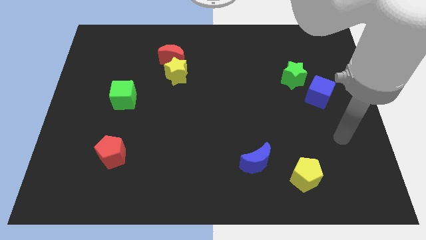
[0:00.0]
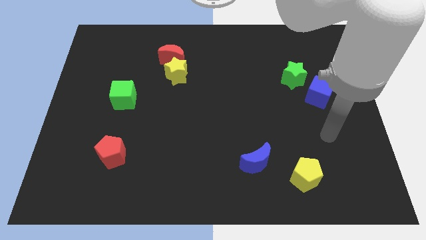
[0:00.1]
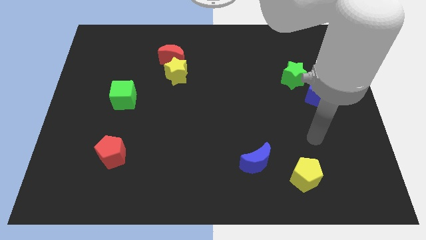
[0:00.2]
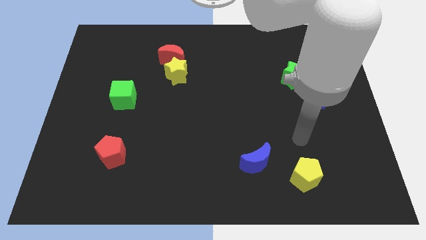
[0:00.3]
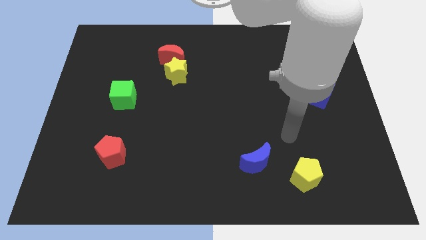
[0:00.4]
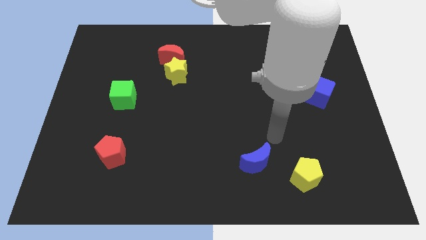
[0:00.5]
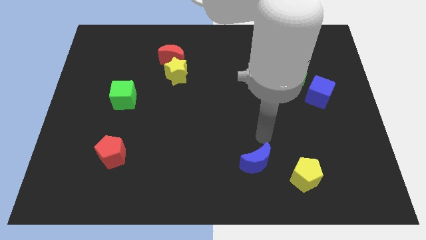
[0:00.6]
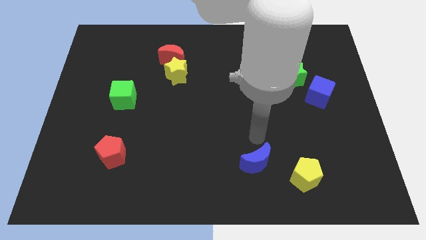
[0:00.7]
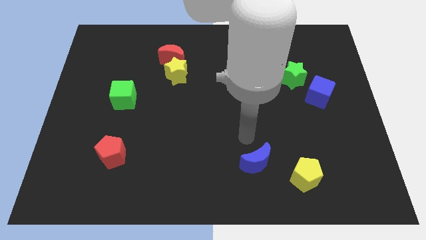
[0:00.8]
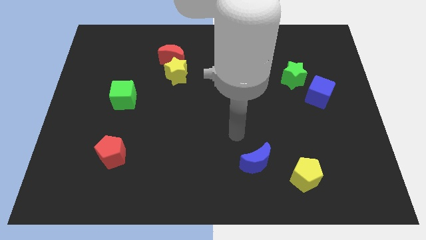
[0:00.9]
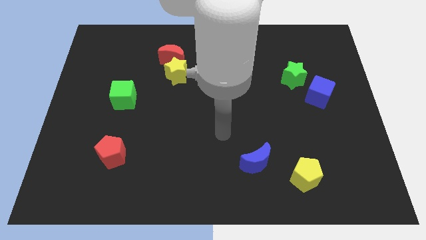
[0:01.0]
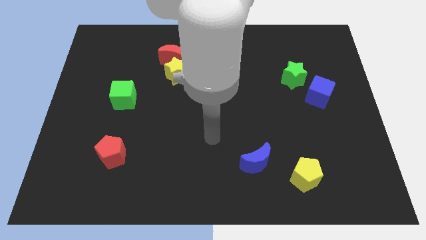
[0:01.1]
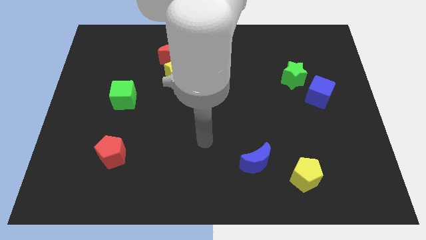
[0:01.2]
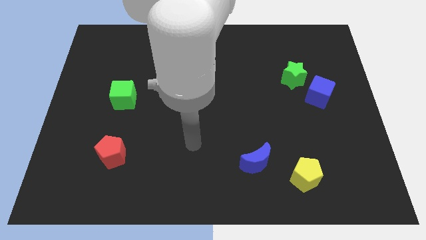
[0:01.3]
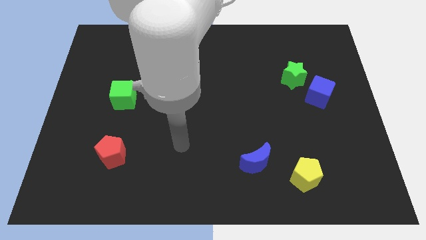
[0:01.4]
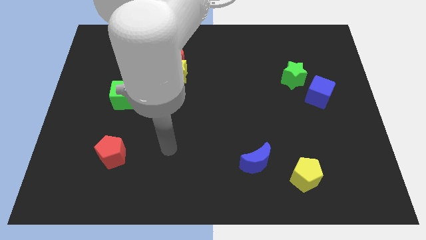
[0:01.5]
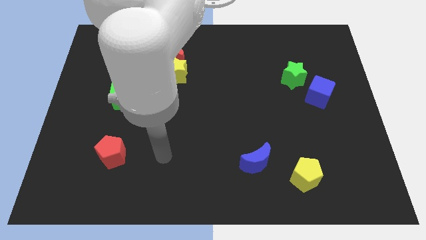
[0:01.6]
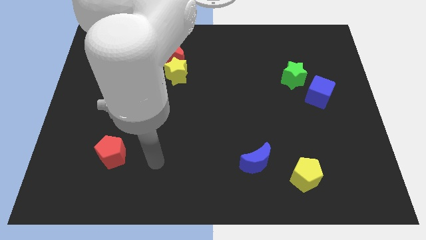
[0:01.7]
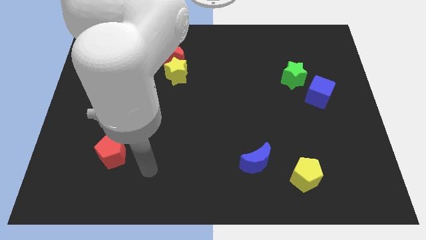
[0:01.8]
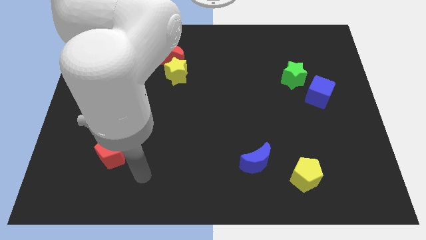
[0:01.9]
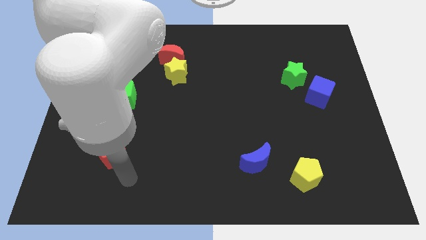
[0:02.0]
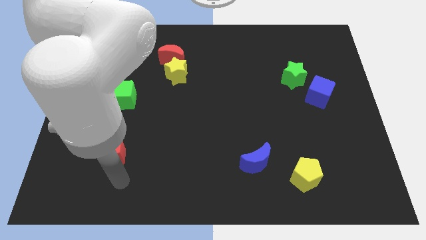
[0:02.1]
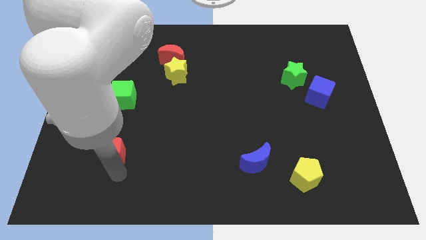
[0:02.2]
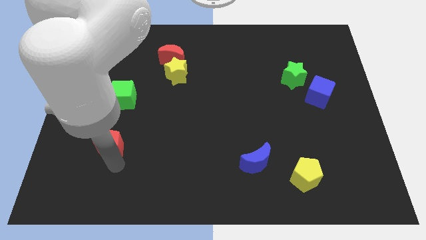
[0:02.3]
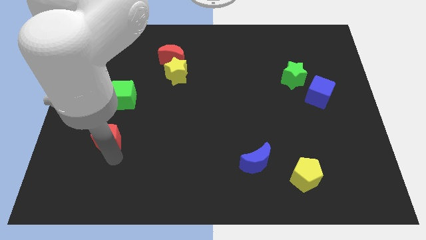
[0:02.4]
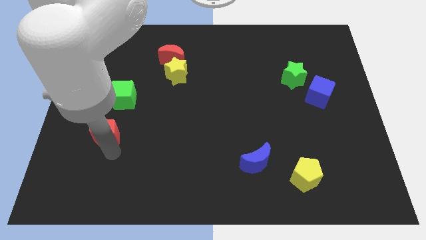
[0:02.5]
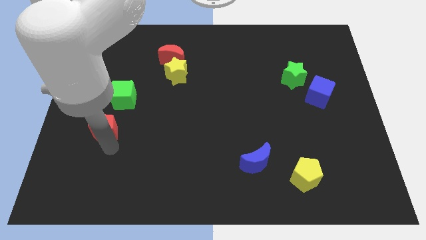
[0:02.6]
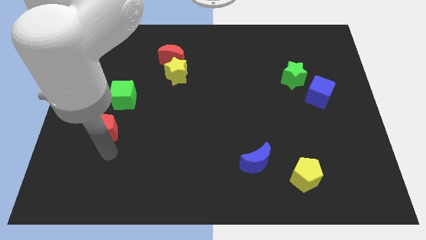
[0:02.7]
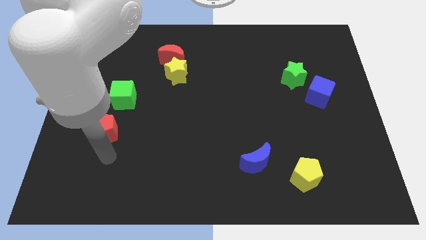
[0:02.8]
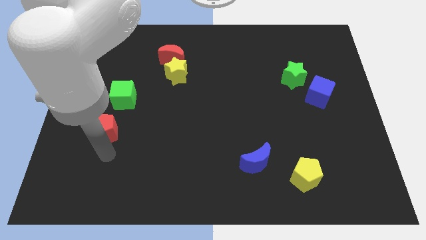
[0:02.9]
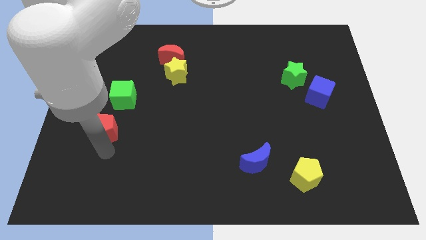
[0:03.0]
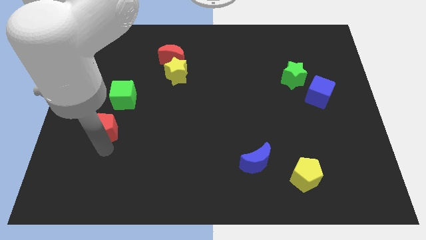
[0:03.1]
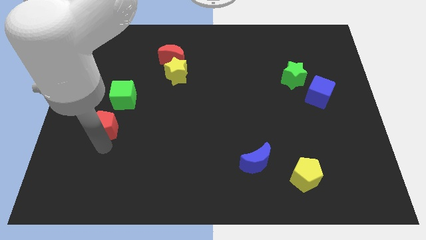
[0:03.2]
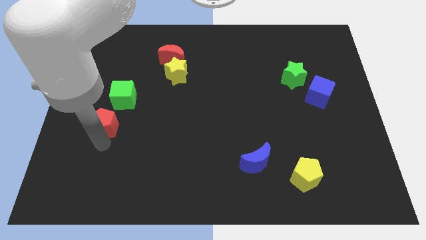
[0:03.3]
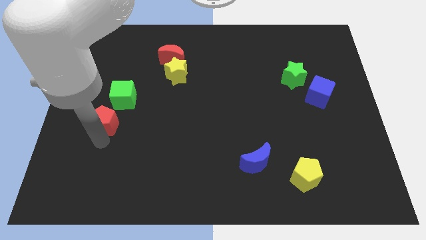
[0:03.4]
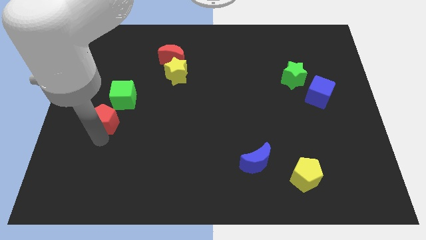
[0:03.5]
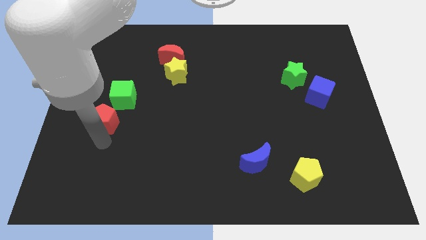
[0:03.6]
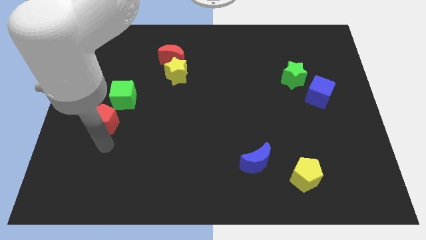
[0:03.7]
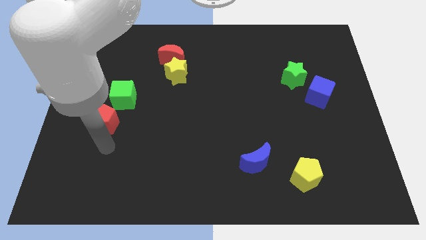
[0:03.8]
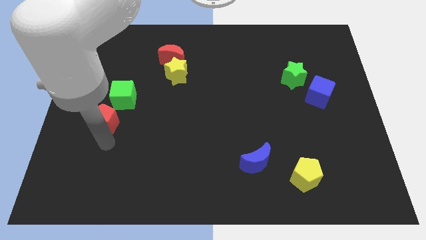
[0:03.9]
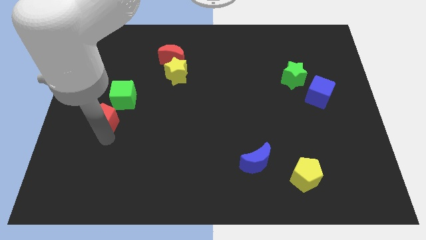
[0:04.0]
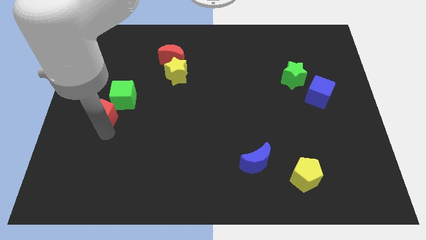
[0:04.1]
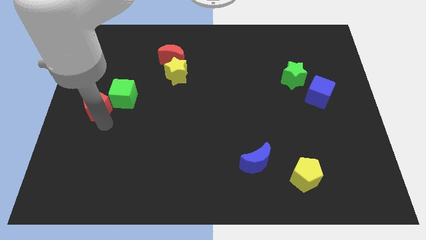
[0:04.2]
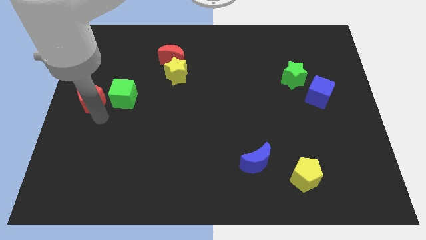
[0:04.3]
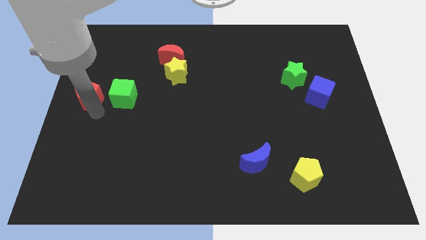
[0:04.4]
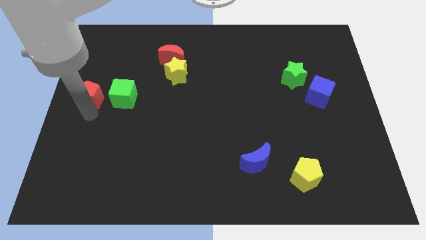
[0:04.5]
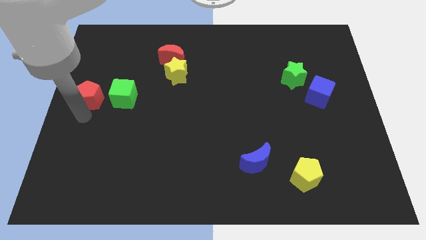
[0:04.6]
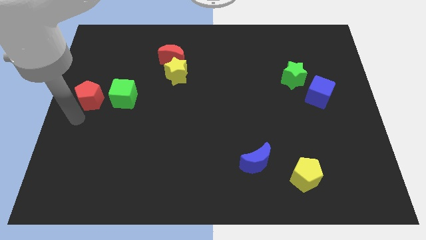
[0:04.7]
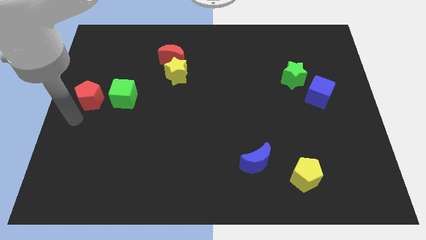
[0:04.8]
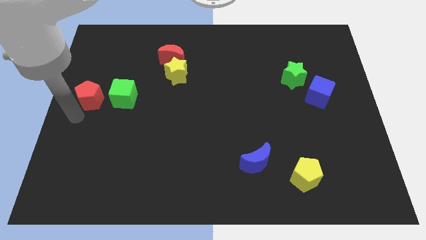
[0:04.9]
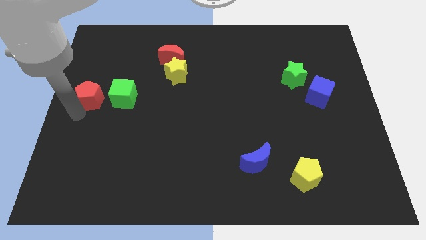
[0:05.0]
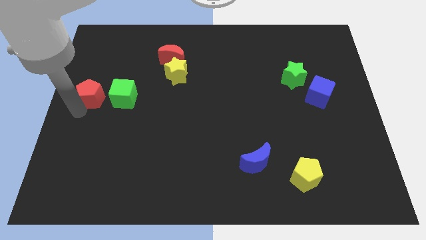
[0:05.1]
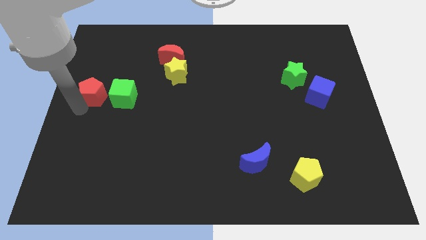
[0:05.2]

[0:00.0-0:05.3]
put the red pentagon diagonally up and to the left of the green cube

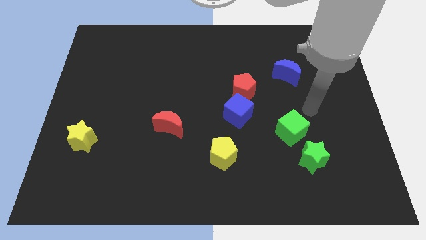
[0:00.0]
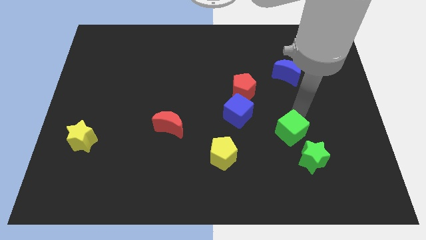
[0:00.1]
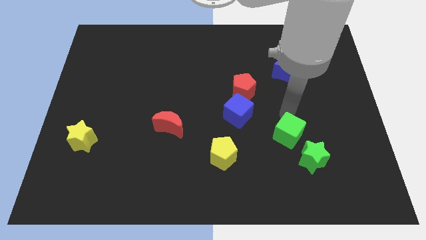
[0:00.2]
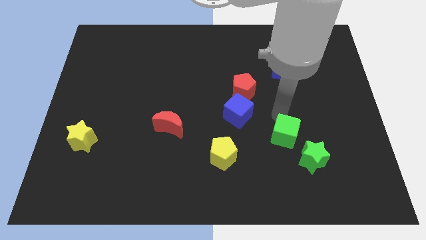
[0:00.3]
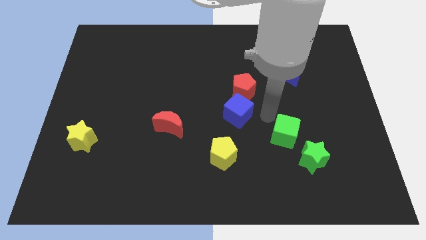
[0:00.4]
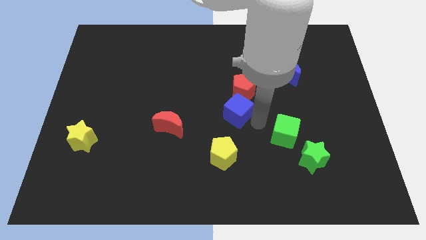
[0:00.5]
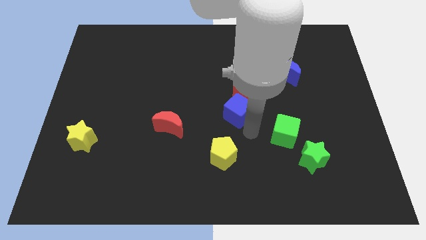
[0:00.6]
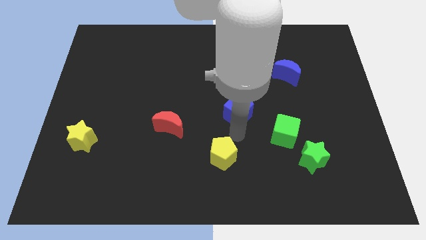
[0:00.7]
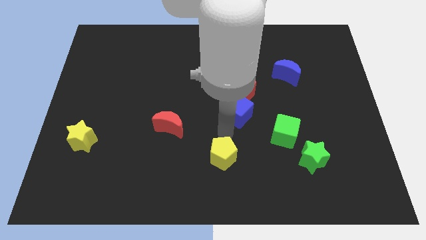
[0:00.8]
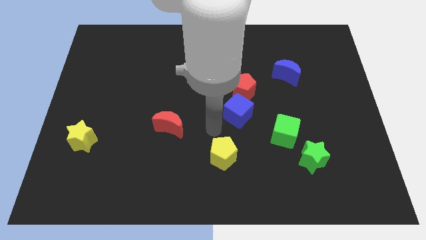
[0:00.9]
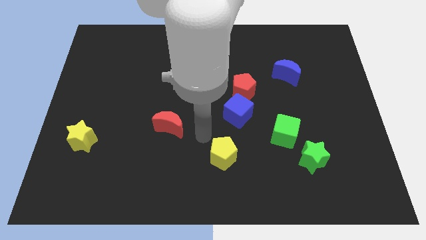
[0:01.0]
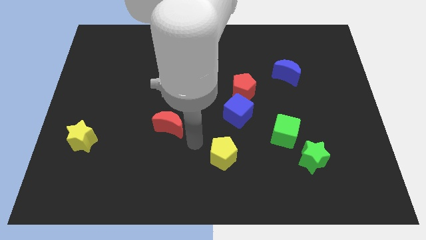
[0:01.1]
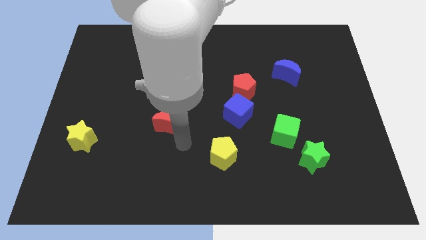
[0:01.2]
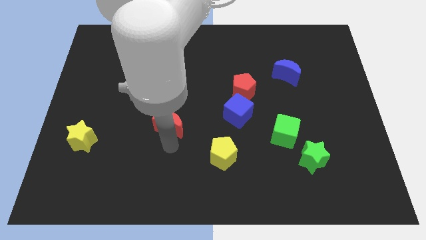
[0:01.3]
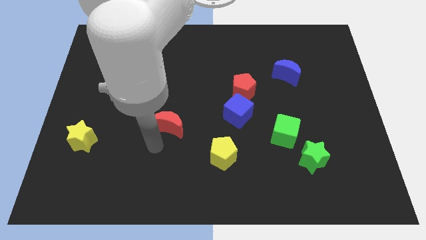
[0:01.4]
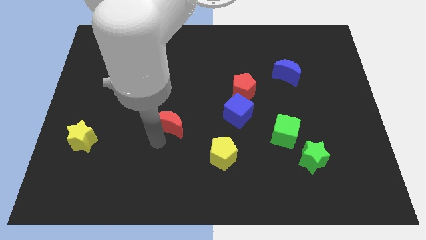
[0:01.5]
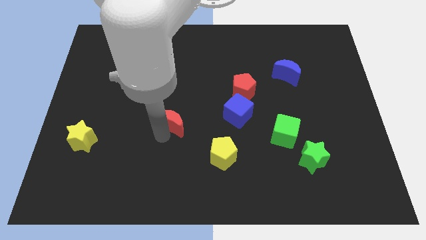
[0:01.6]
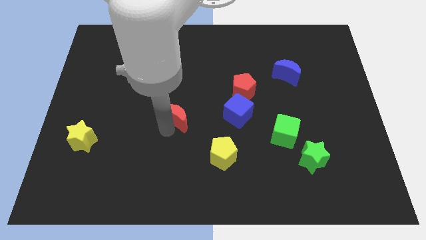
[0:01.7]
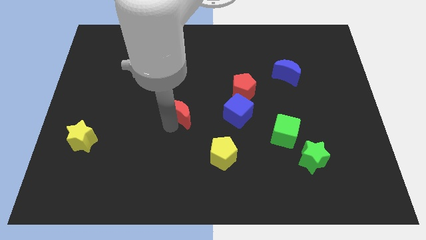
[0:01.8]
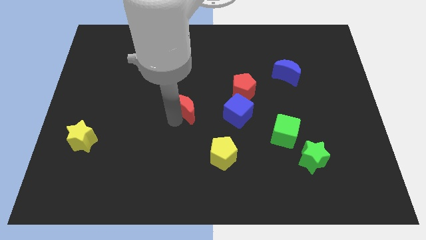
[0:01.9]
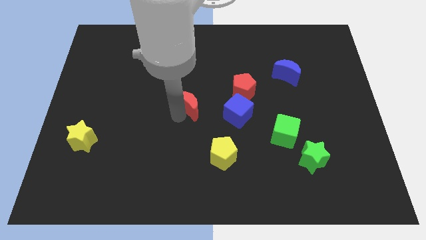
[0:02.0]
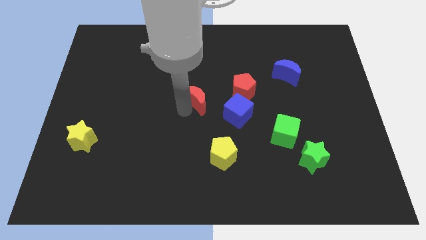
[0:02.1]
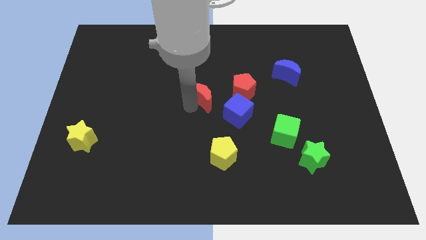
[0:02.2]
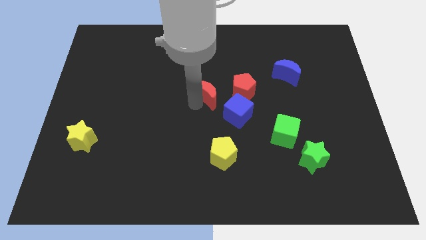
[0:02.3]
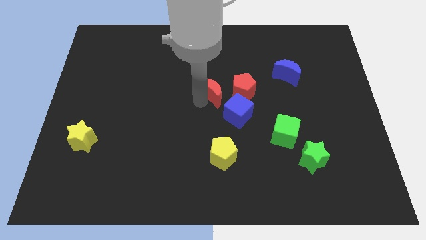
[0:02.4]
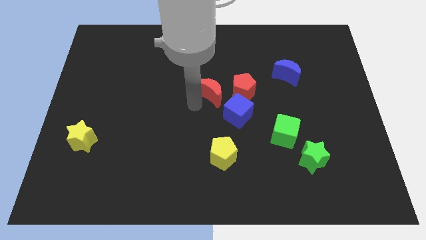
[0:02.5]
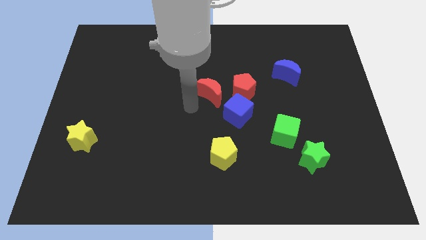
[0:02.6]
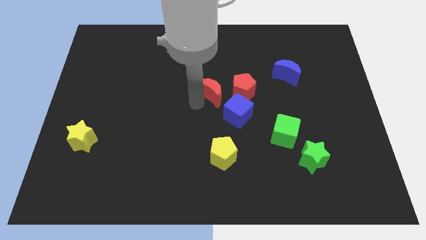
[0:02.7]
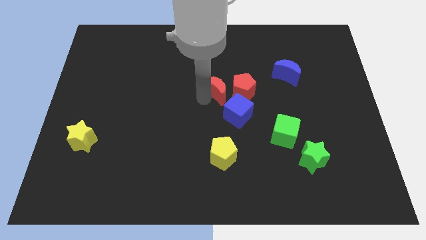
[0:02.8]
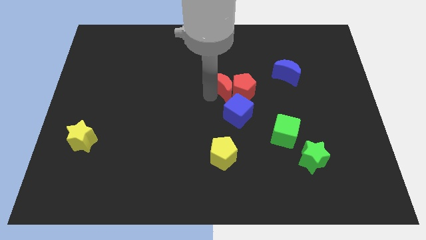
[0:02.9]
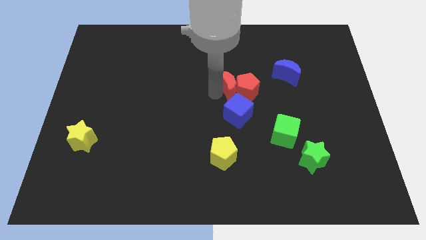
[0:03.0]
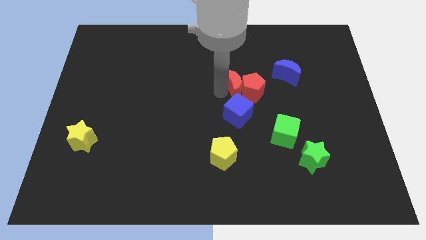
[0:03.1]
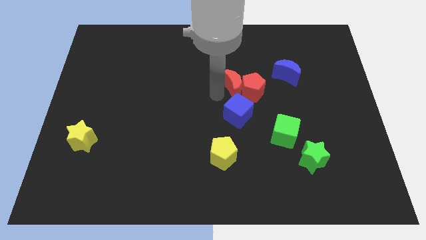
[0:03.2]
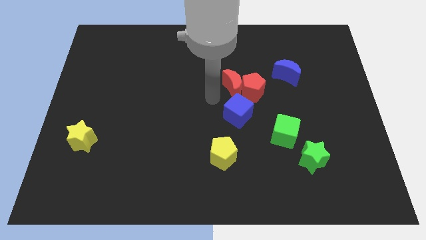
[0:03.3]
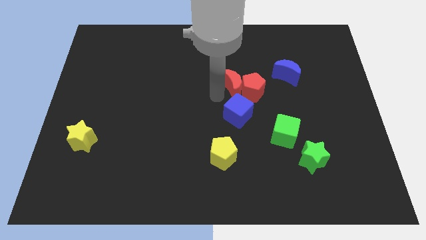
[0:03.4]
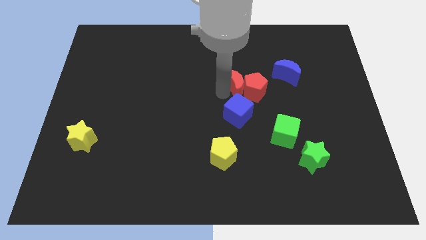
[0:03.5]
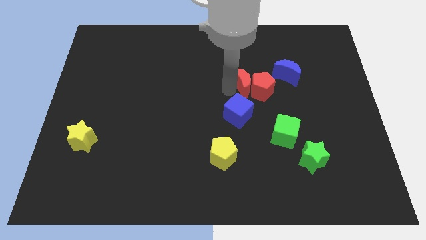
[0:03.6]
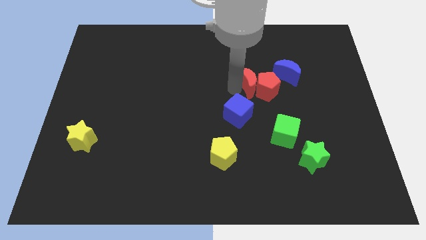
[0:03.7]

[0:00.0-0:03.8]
slide the red moon diagonally down and to the left of the blue moon
